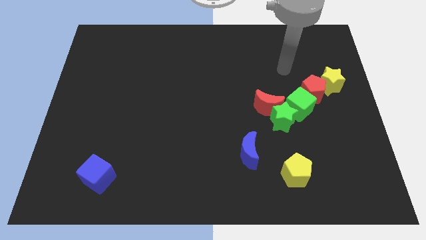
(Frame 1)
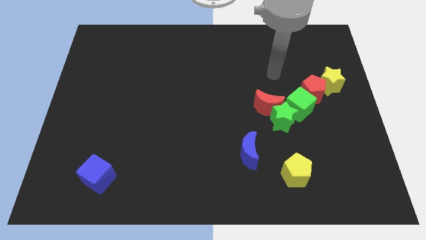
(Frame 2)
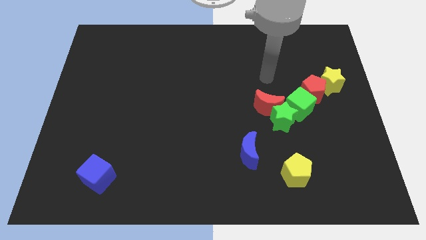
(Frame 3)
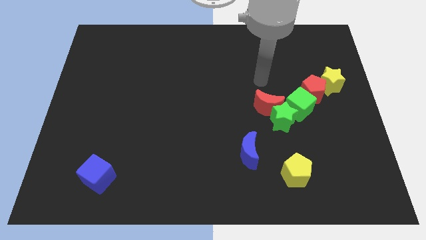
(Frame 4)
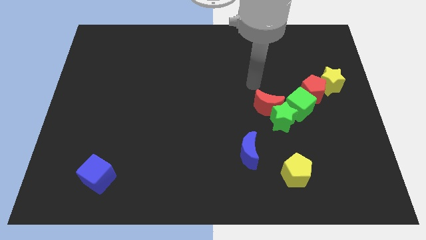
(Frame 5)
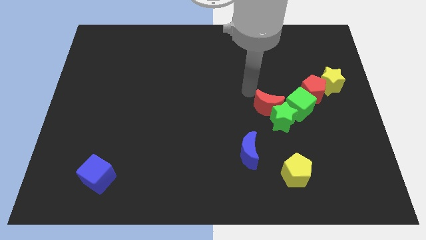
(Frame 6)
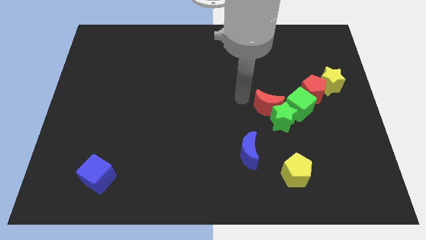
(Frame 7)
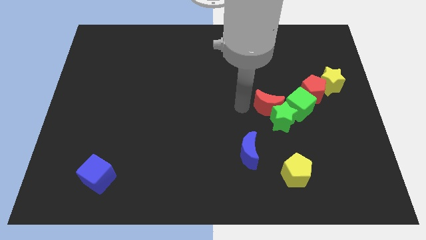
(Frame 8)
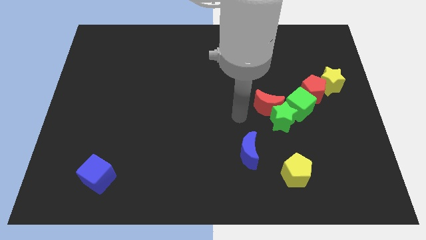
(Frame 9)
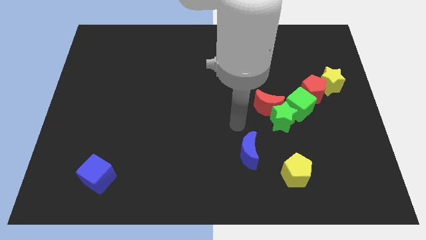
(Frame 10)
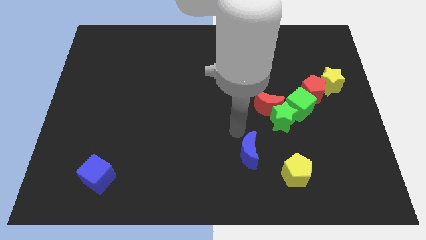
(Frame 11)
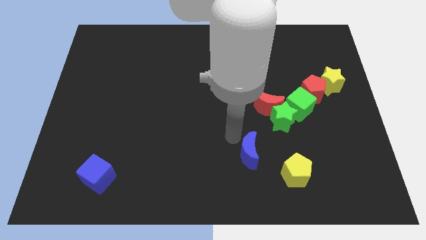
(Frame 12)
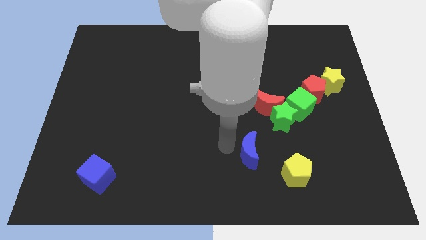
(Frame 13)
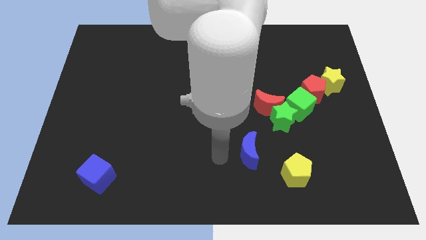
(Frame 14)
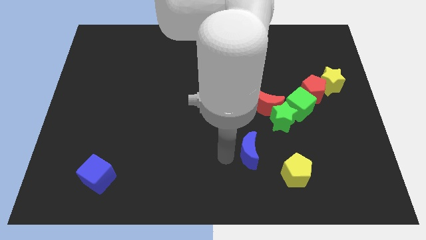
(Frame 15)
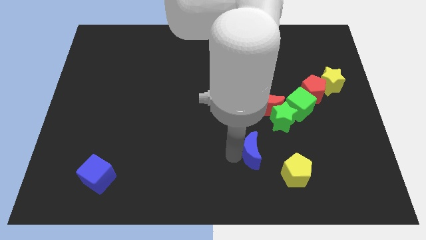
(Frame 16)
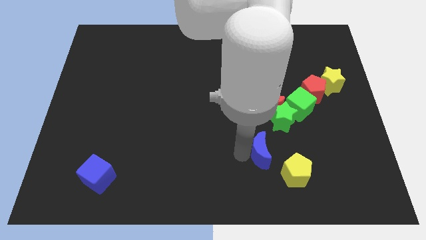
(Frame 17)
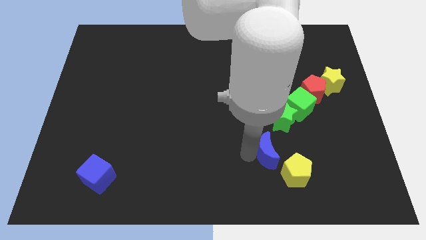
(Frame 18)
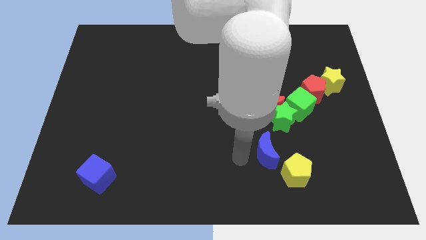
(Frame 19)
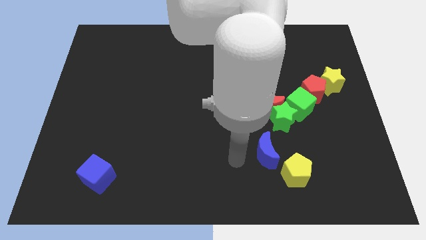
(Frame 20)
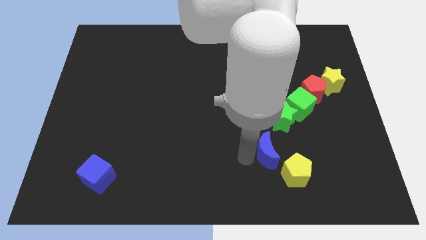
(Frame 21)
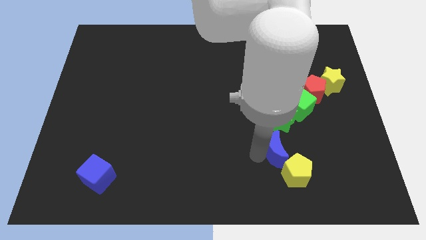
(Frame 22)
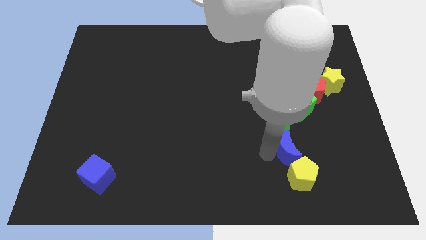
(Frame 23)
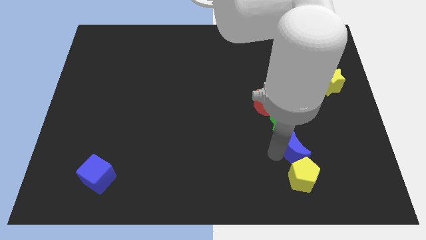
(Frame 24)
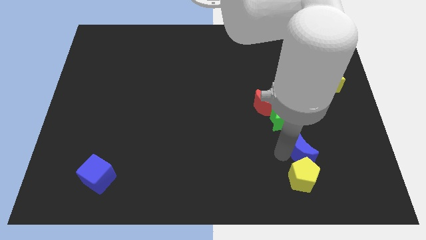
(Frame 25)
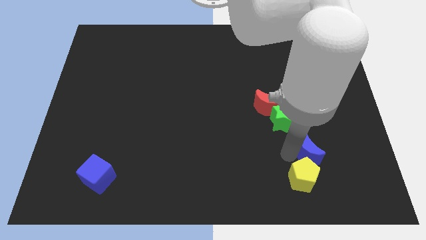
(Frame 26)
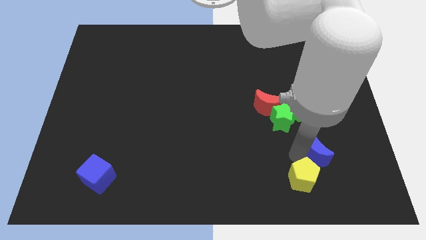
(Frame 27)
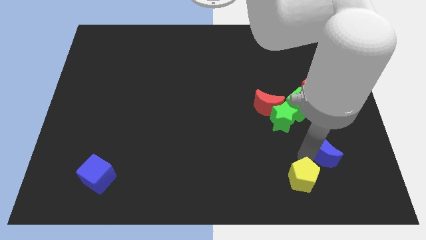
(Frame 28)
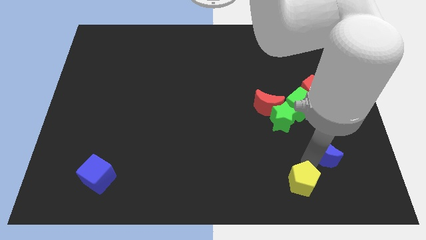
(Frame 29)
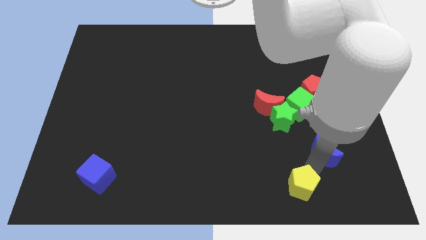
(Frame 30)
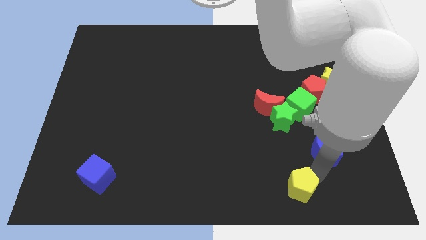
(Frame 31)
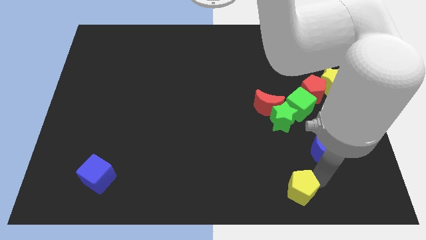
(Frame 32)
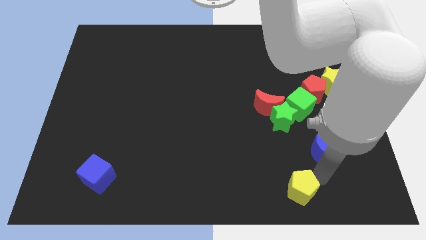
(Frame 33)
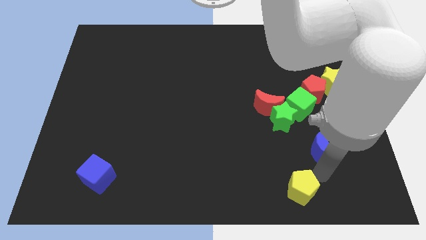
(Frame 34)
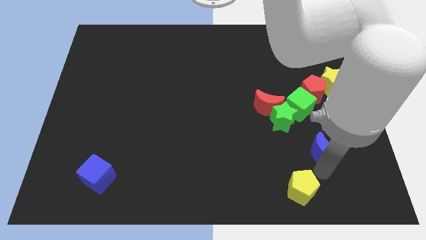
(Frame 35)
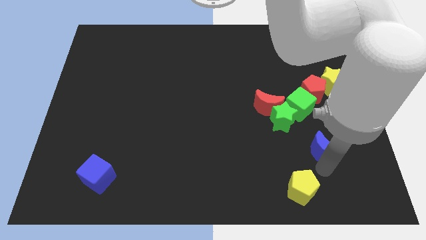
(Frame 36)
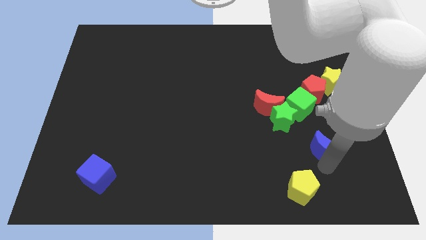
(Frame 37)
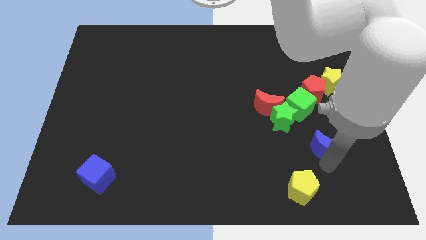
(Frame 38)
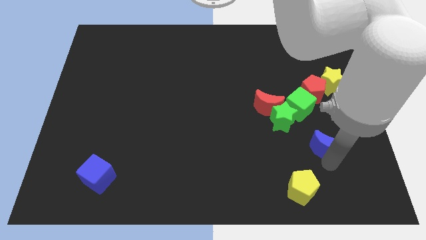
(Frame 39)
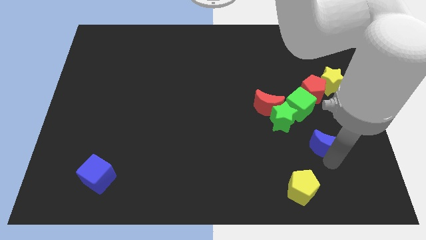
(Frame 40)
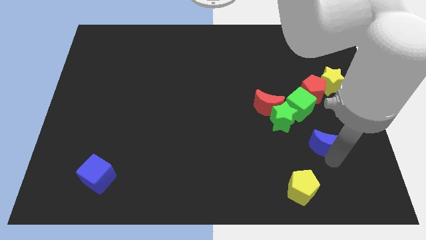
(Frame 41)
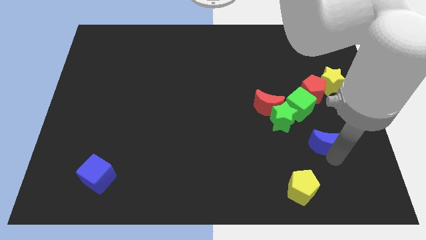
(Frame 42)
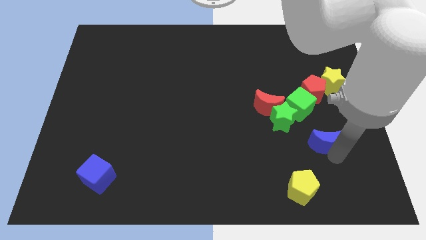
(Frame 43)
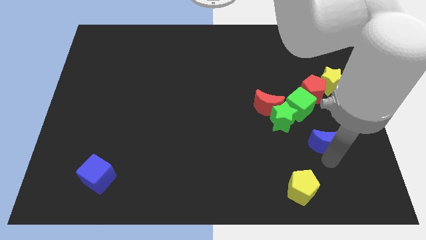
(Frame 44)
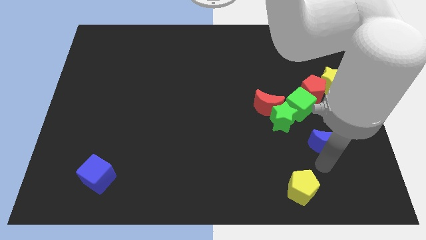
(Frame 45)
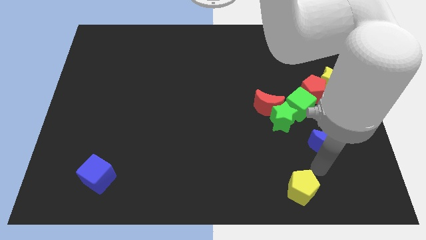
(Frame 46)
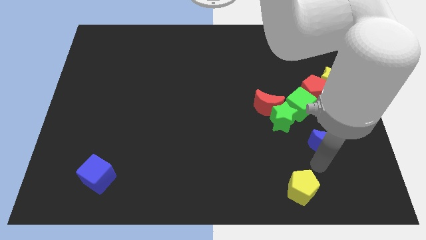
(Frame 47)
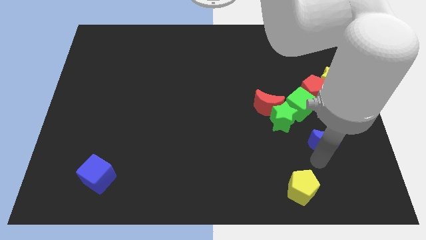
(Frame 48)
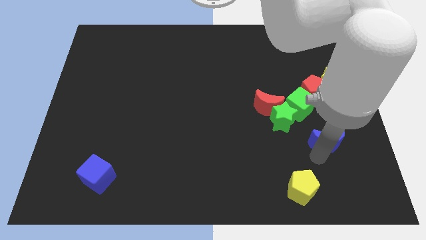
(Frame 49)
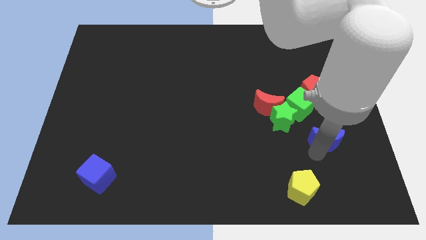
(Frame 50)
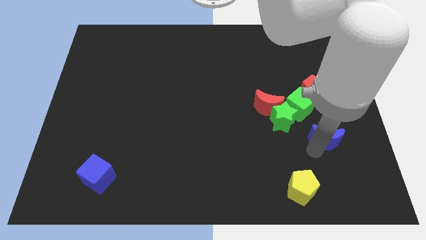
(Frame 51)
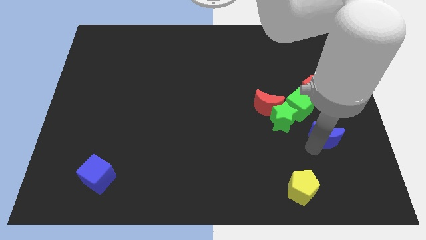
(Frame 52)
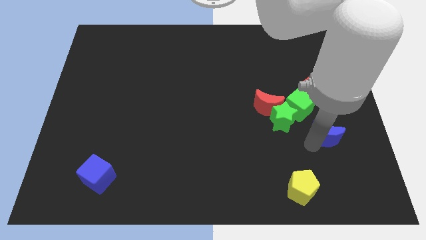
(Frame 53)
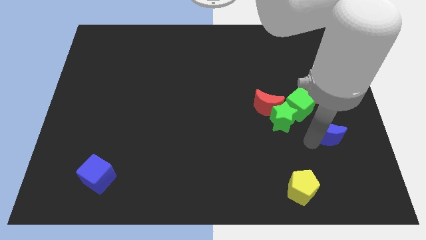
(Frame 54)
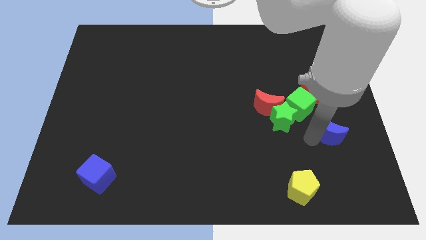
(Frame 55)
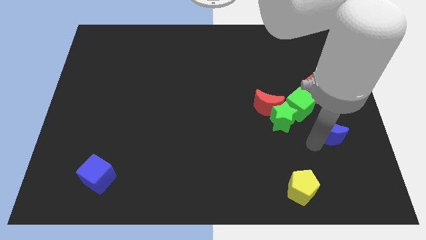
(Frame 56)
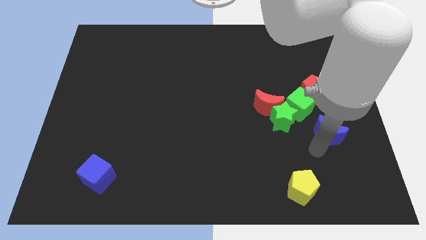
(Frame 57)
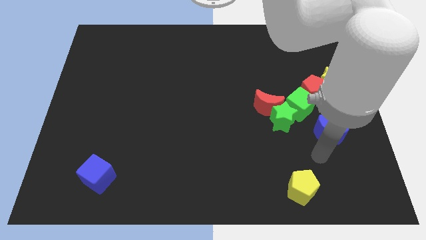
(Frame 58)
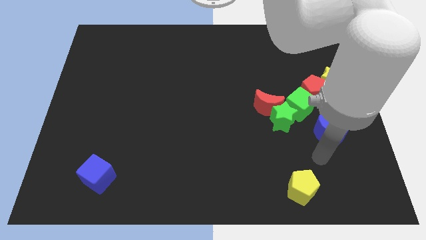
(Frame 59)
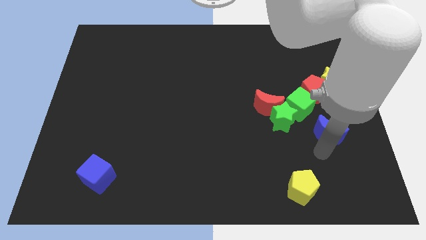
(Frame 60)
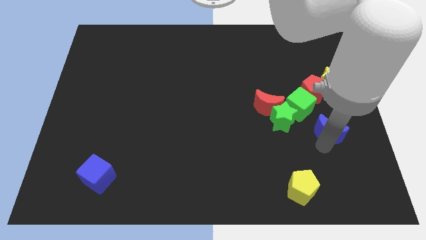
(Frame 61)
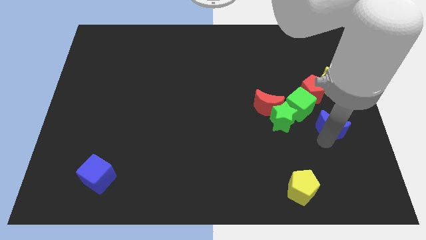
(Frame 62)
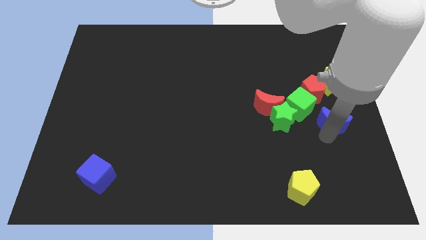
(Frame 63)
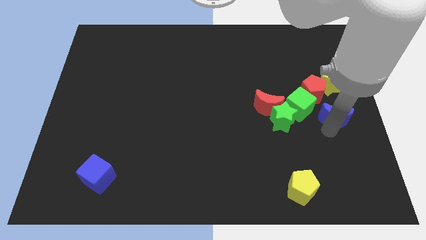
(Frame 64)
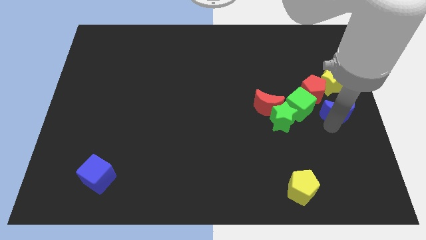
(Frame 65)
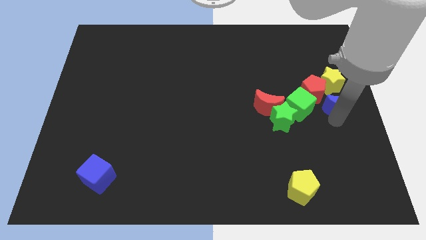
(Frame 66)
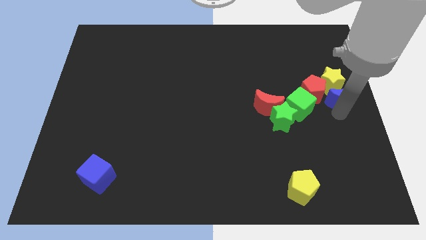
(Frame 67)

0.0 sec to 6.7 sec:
move the blue moon towards the yellow star

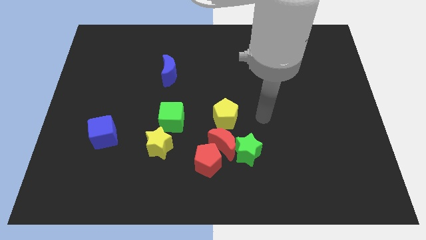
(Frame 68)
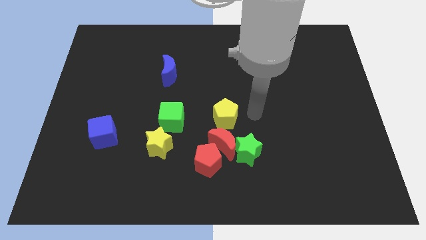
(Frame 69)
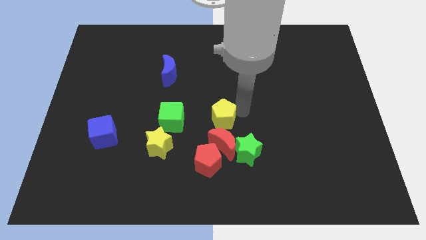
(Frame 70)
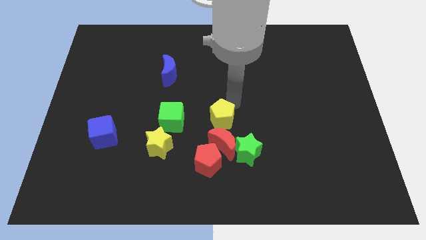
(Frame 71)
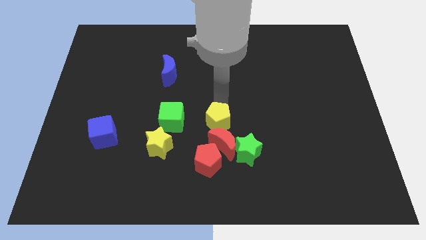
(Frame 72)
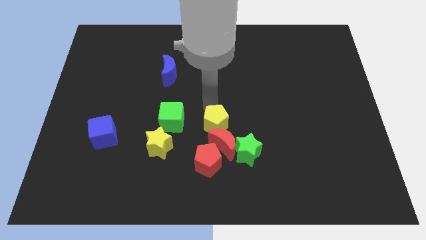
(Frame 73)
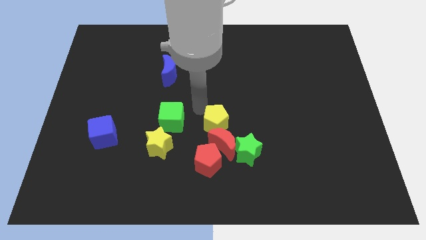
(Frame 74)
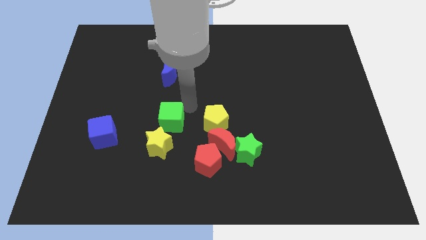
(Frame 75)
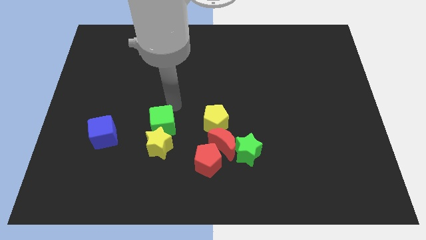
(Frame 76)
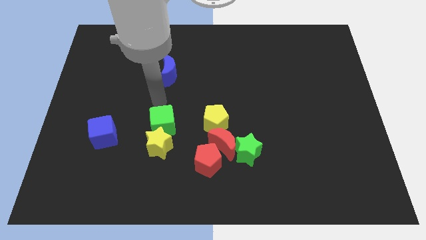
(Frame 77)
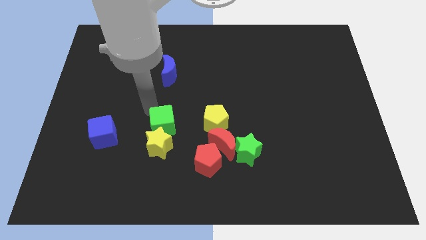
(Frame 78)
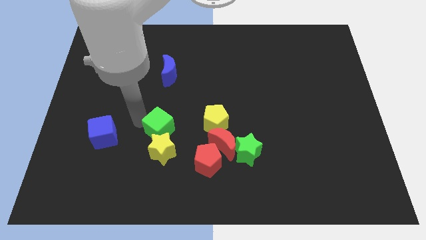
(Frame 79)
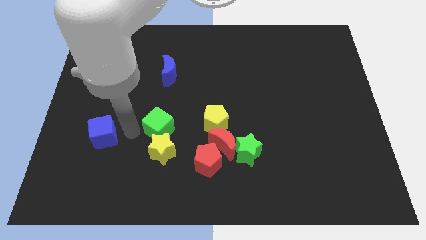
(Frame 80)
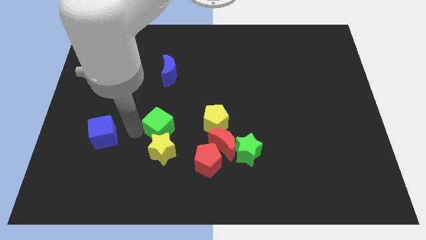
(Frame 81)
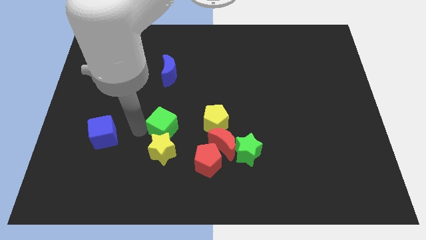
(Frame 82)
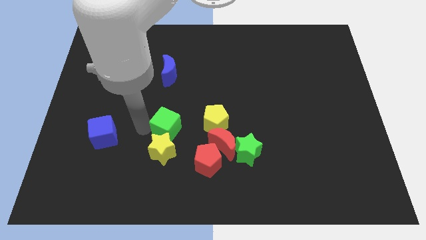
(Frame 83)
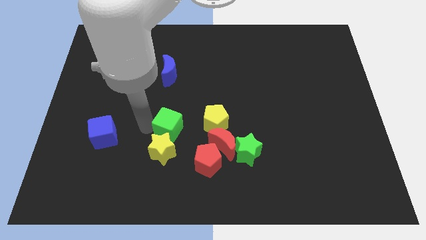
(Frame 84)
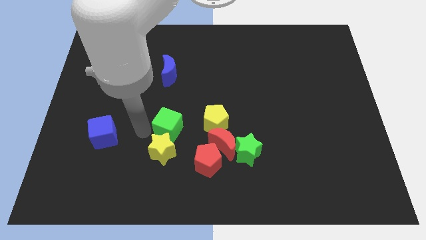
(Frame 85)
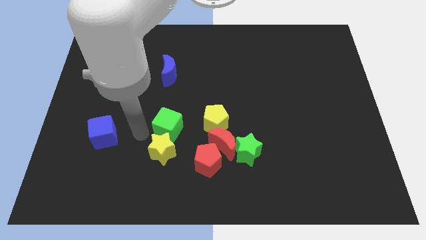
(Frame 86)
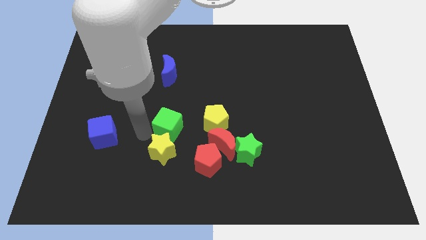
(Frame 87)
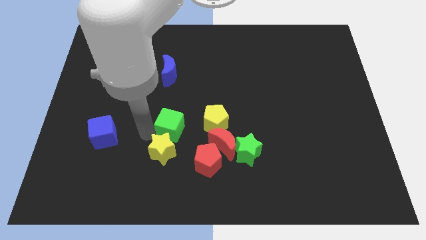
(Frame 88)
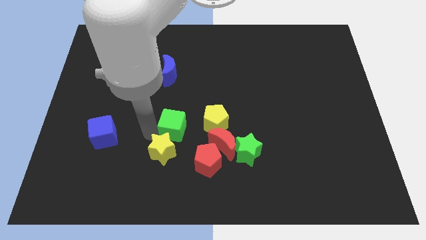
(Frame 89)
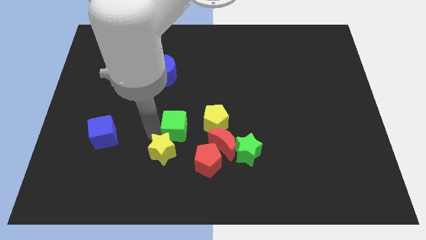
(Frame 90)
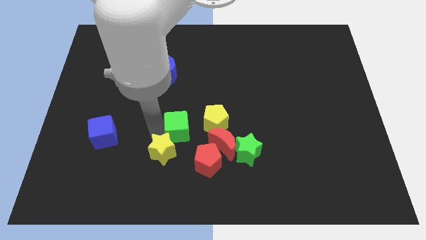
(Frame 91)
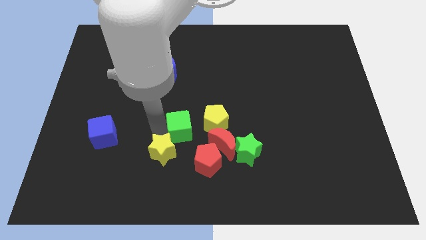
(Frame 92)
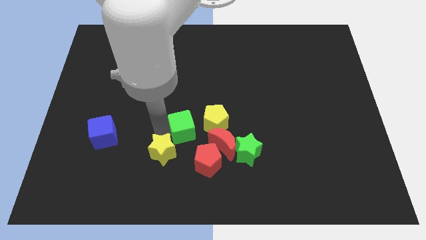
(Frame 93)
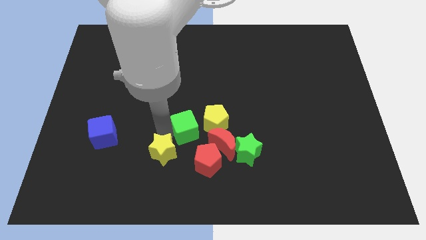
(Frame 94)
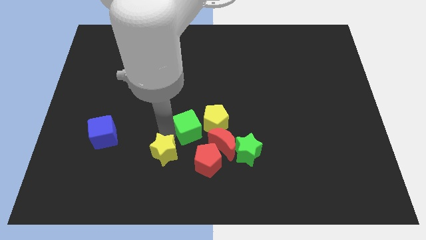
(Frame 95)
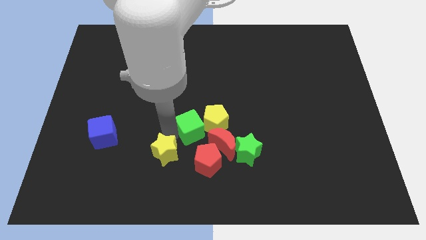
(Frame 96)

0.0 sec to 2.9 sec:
push the green cube towards the yellow pentagon
